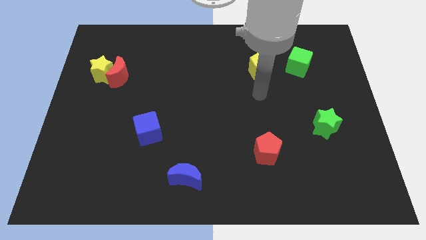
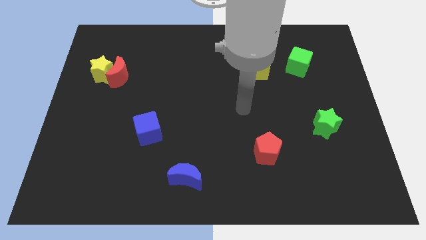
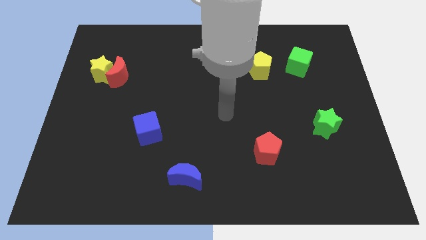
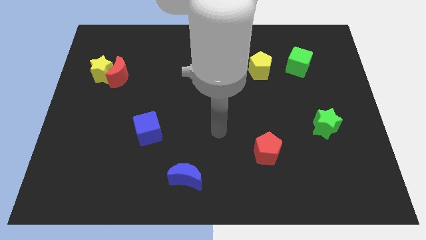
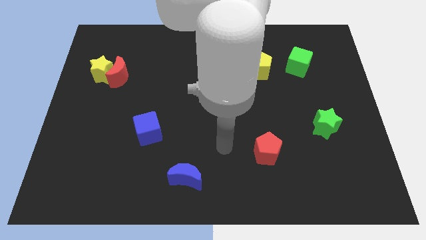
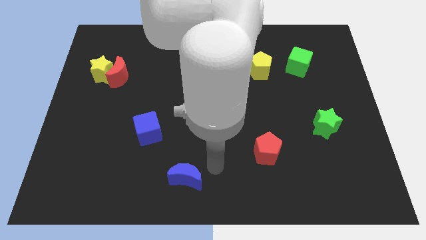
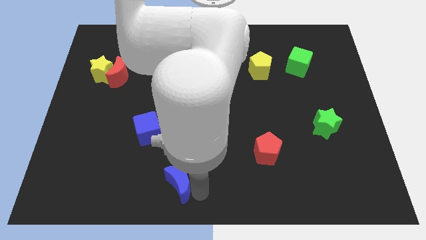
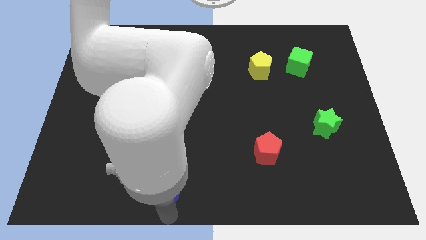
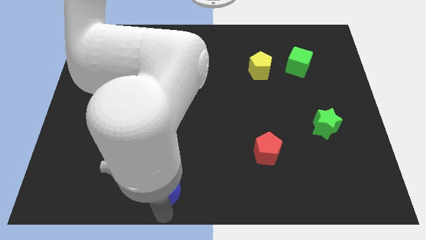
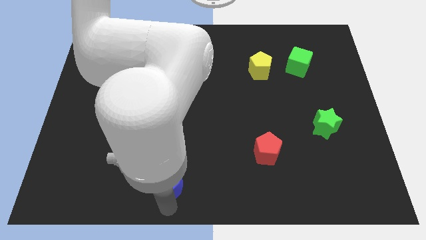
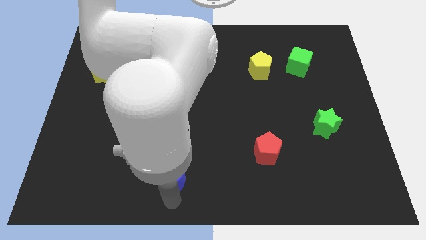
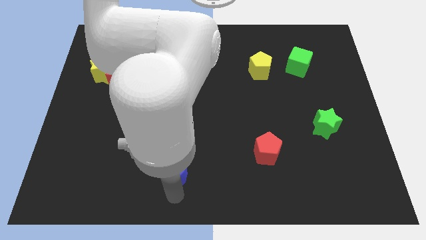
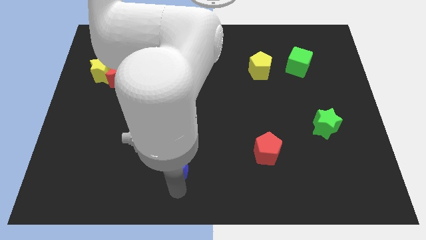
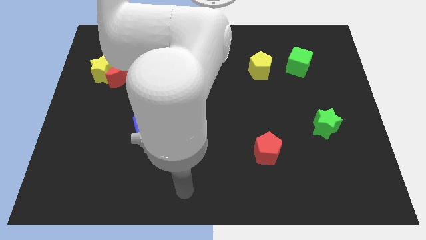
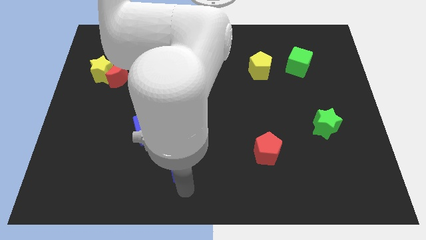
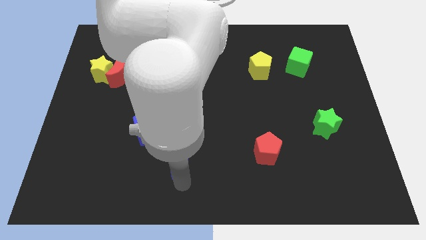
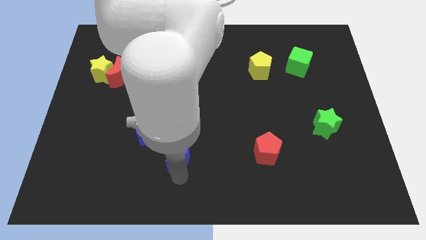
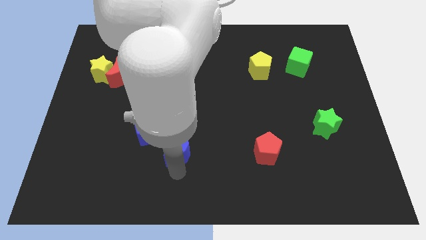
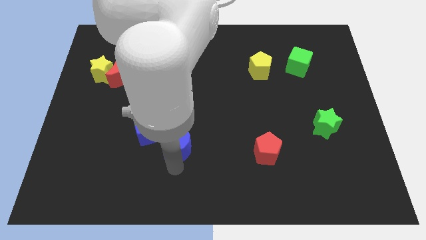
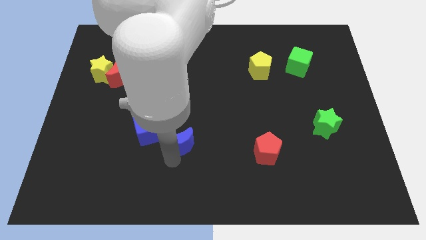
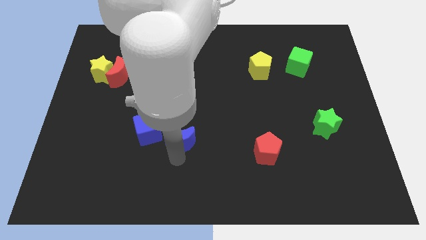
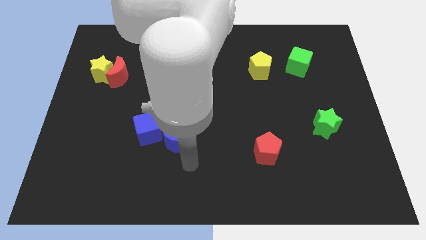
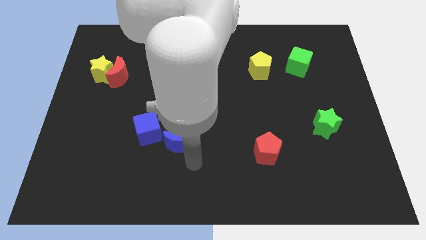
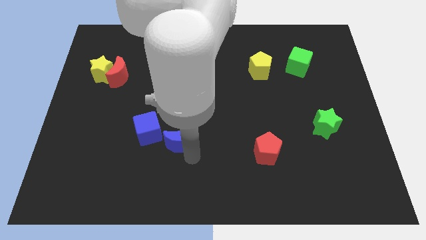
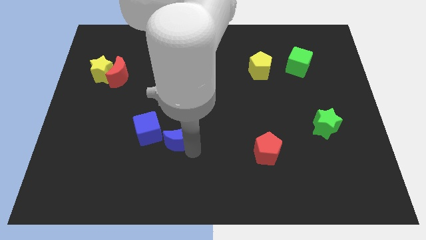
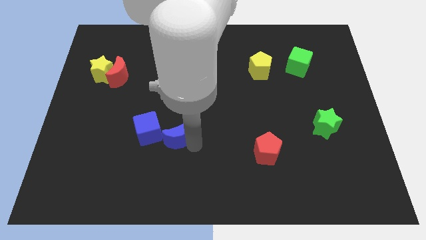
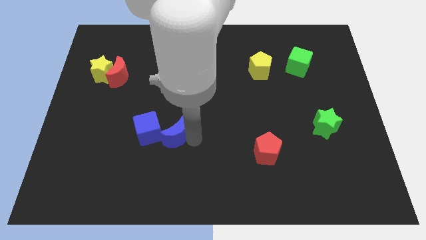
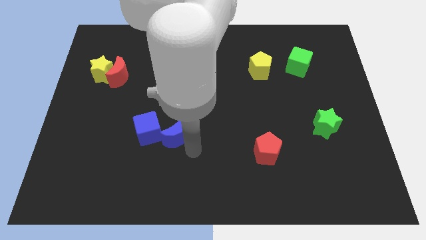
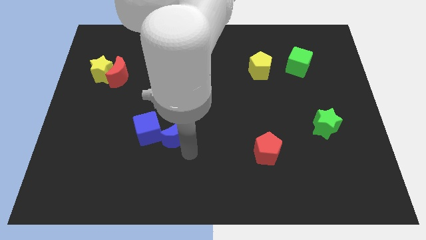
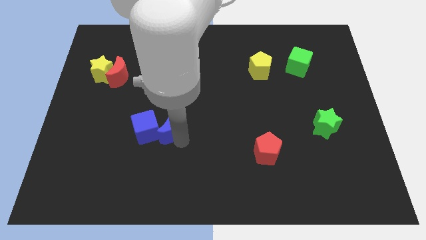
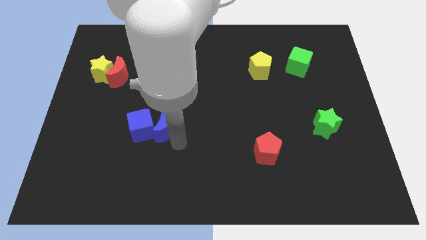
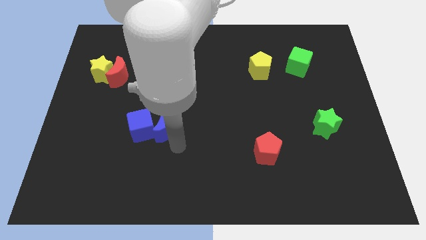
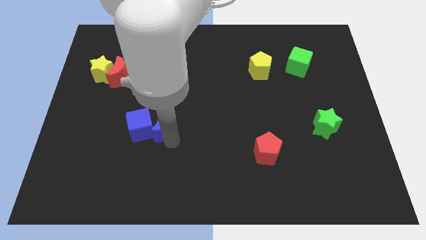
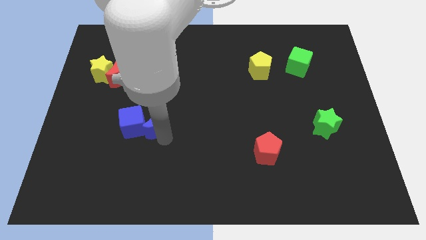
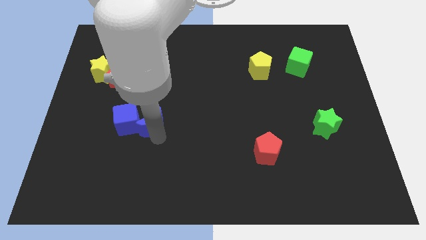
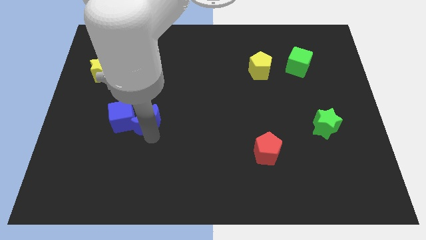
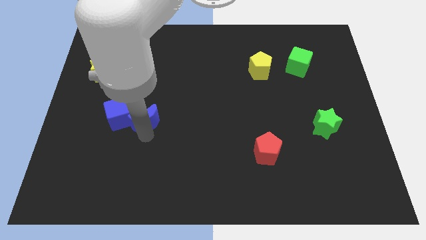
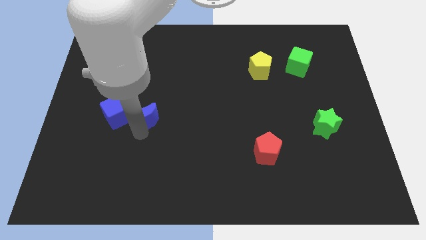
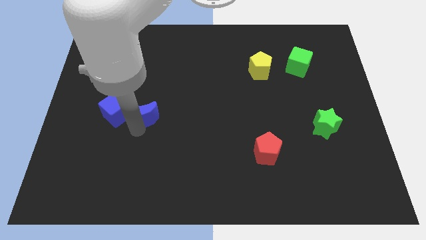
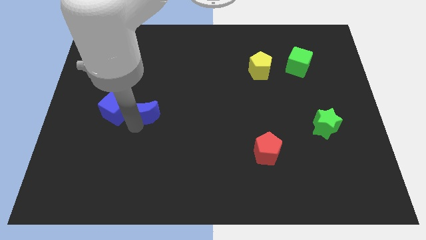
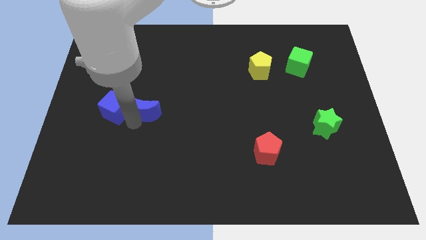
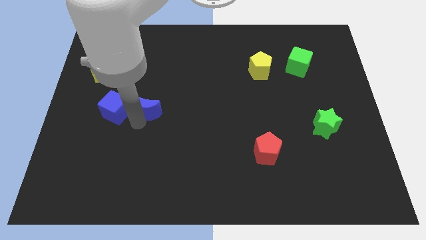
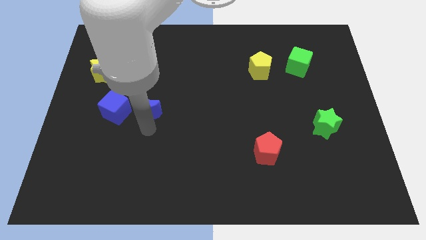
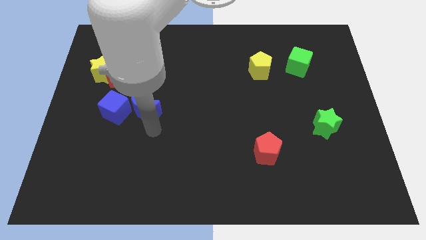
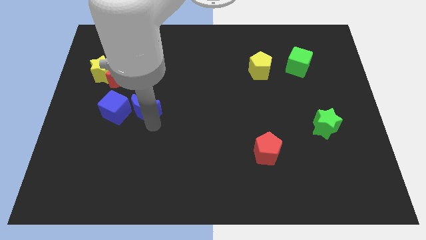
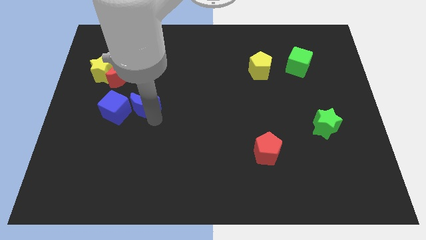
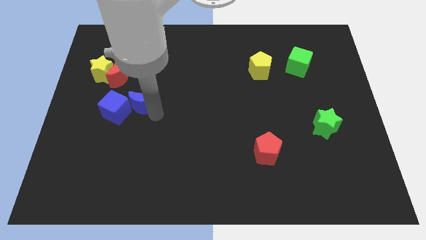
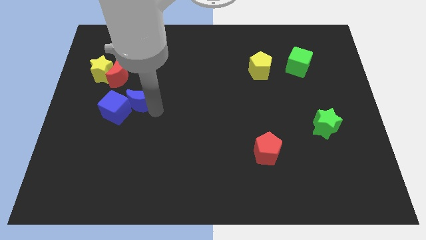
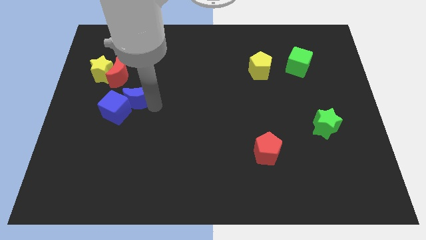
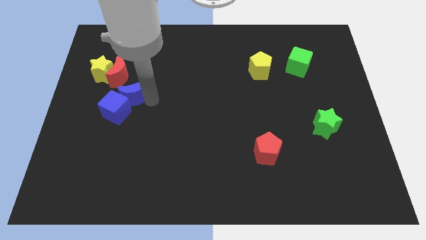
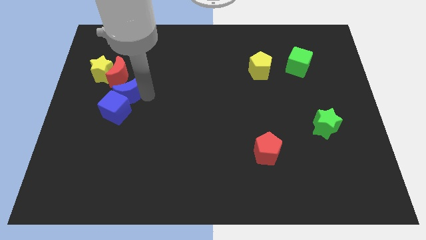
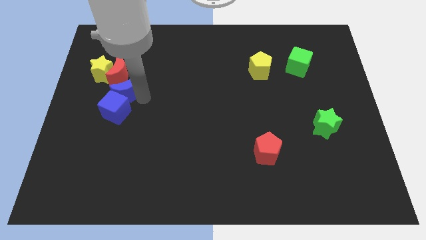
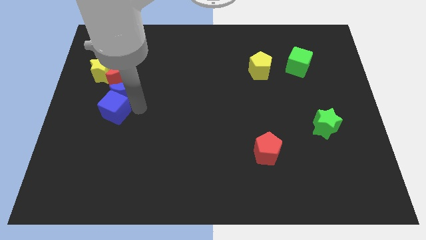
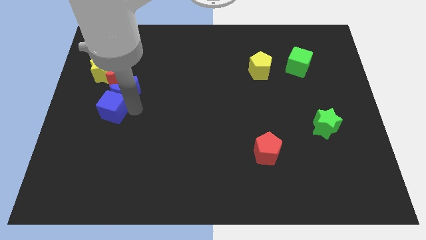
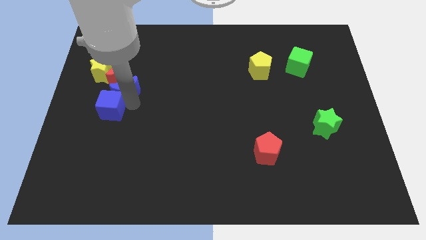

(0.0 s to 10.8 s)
slide the blue moon to the red moon

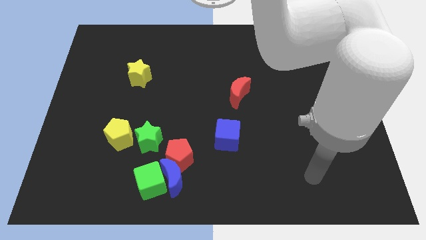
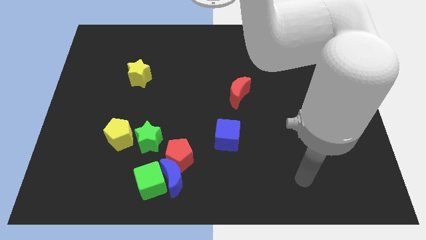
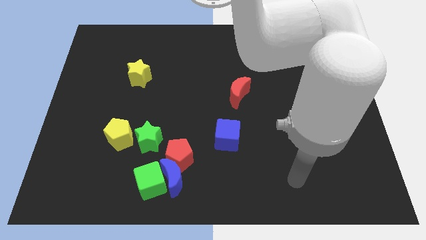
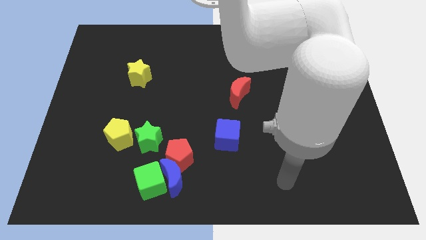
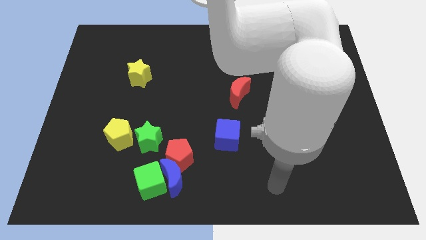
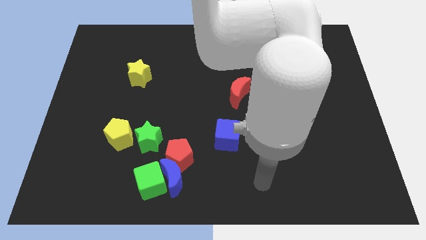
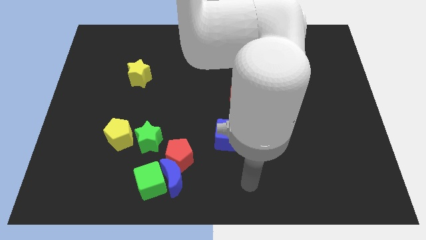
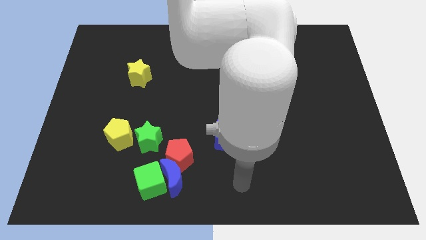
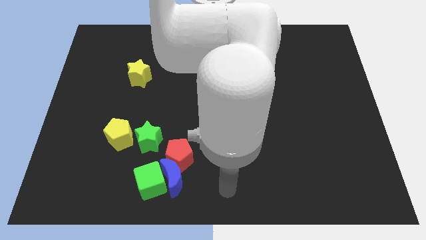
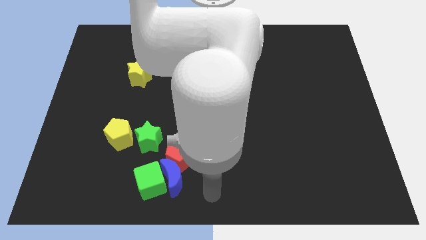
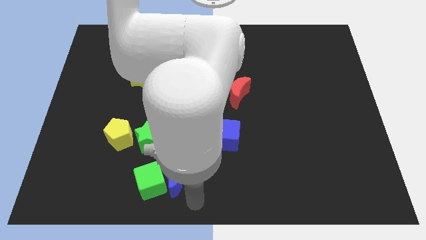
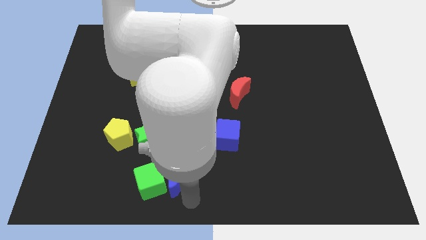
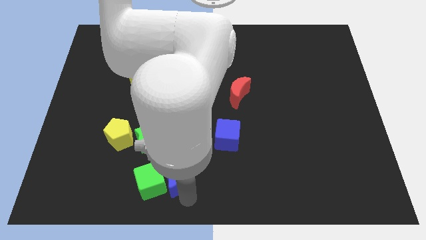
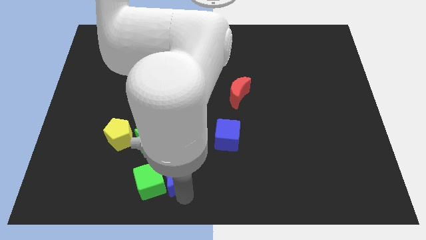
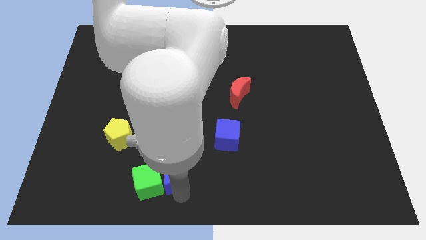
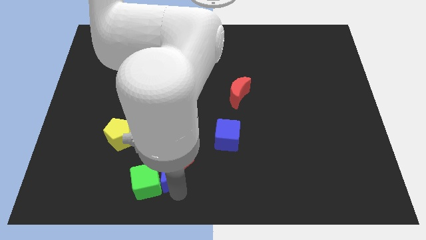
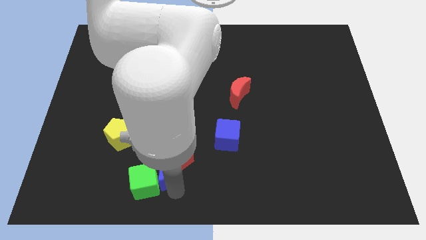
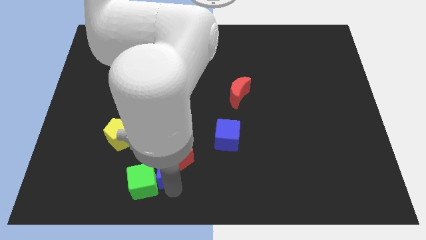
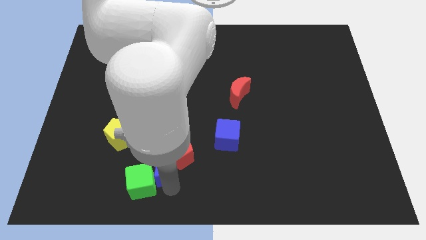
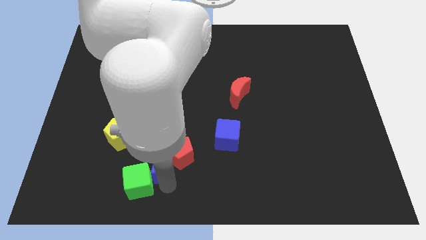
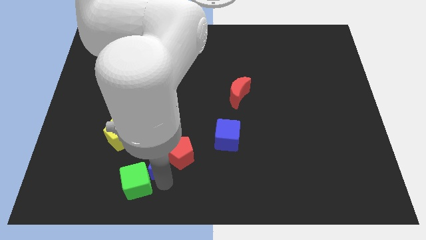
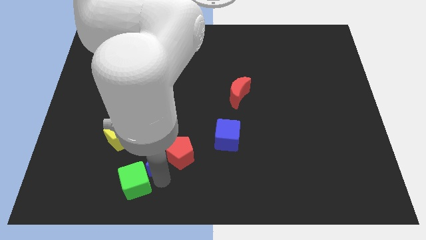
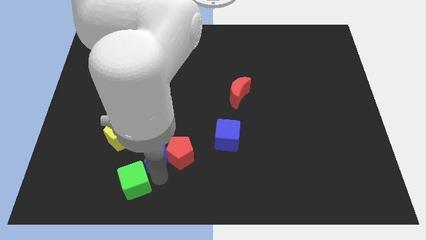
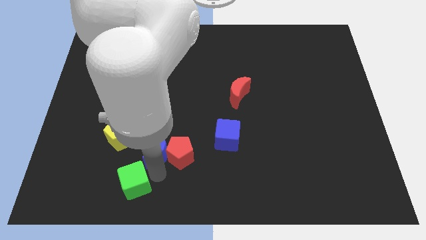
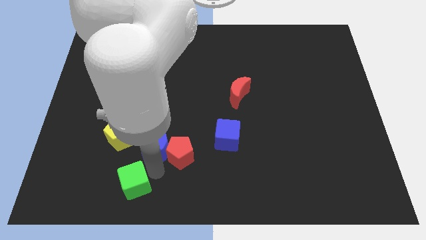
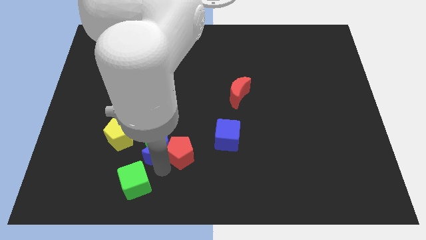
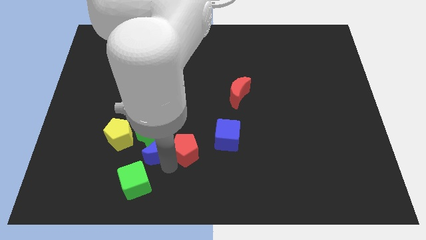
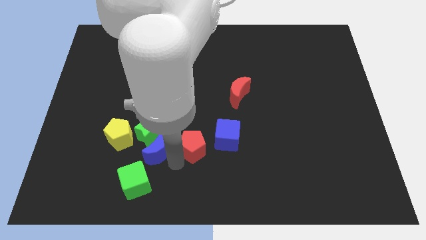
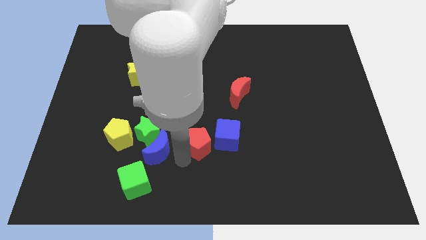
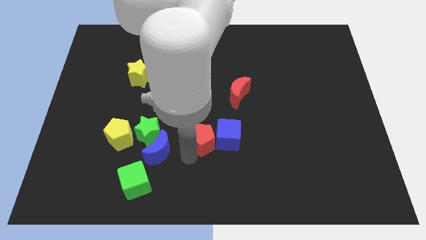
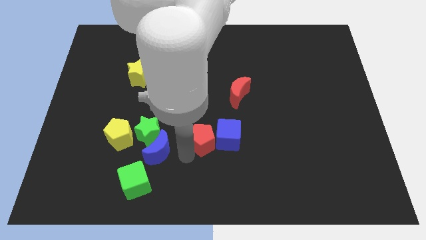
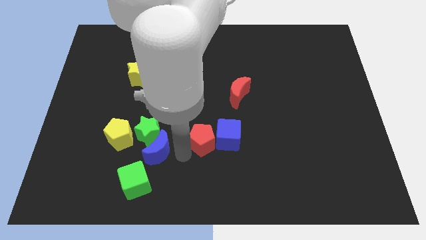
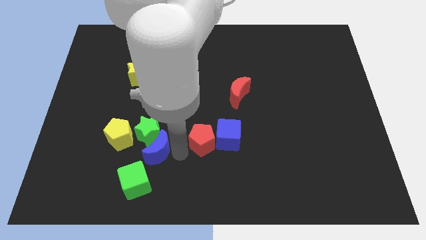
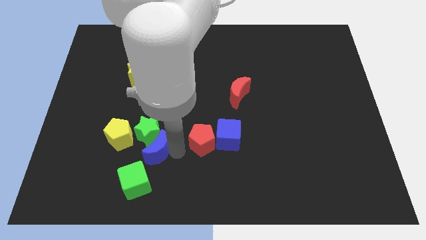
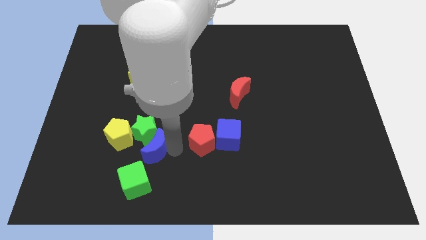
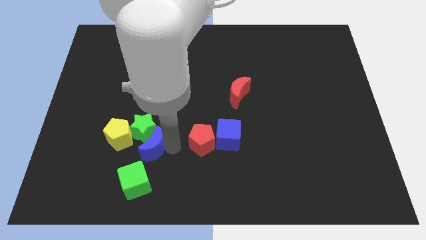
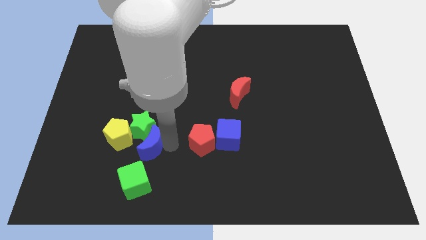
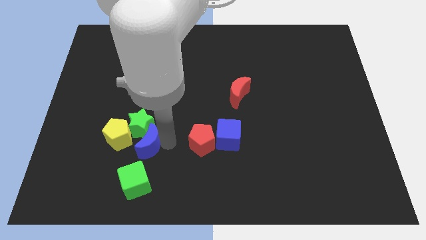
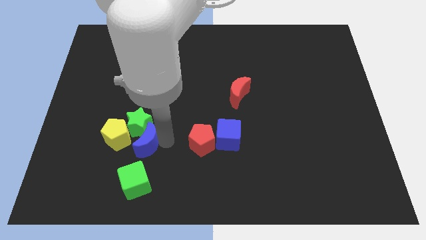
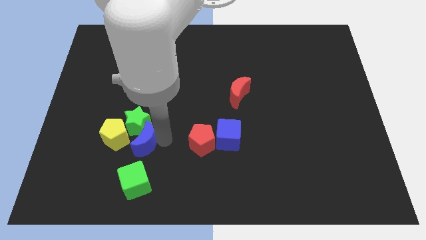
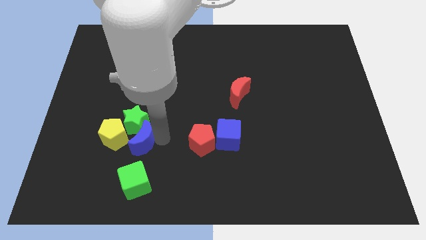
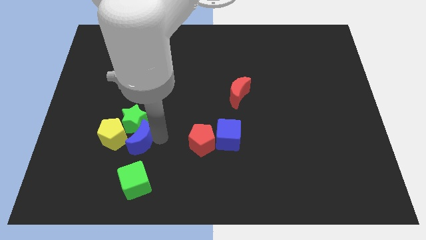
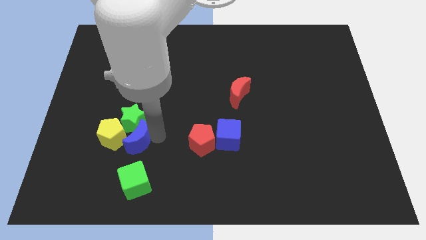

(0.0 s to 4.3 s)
push the blue moon close to the yellow pentagon
